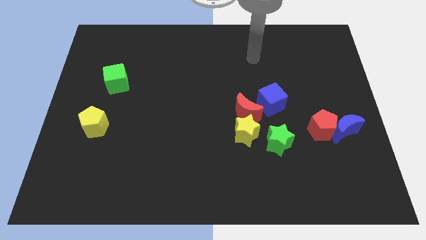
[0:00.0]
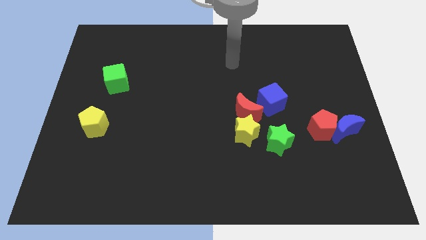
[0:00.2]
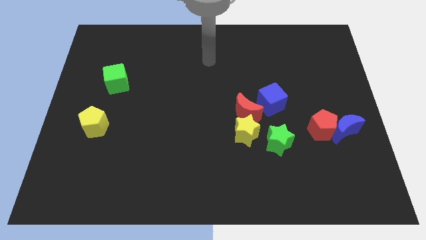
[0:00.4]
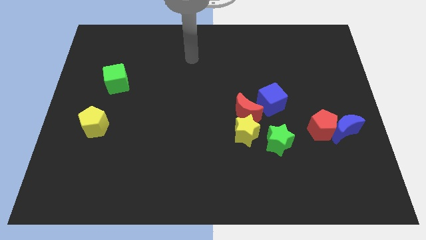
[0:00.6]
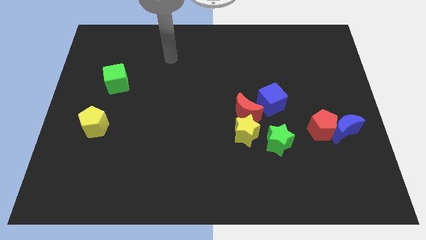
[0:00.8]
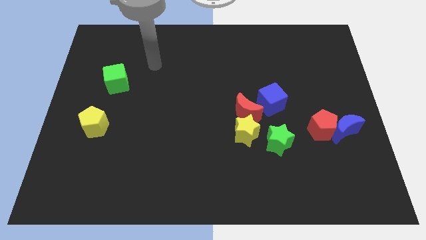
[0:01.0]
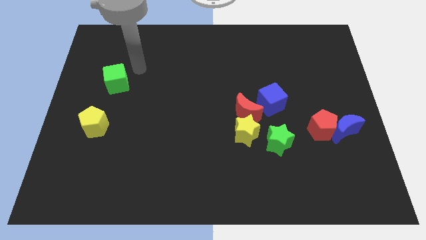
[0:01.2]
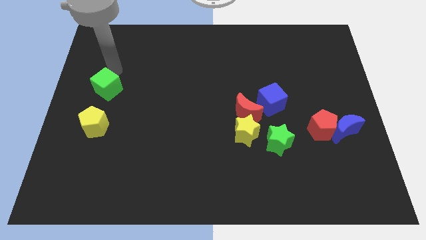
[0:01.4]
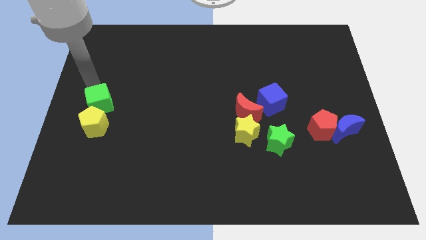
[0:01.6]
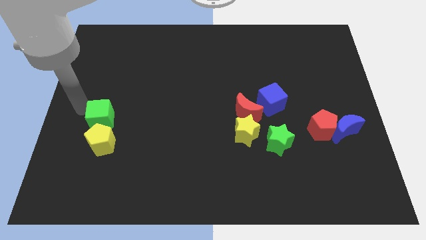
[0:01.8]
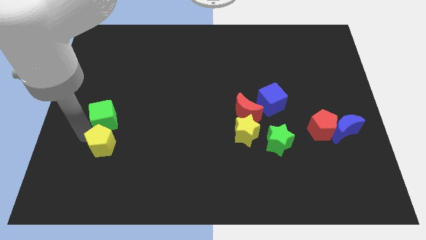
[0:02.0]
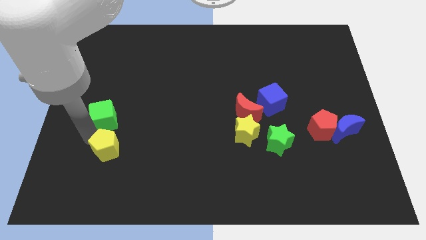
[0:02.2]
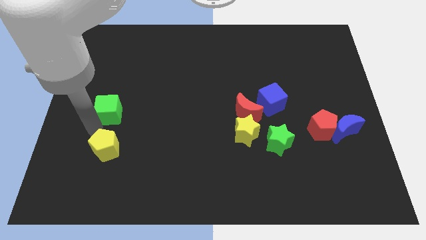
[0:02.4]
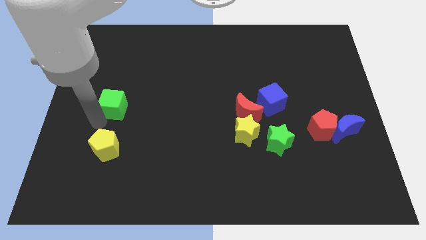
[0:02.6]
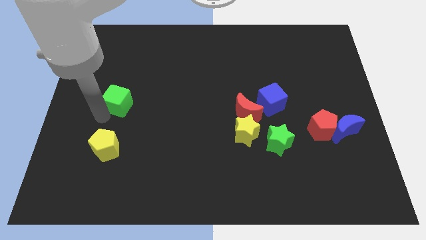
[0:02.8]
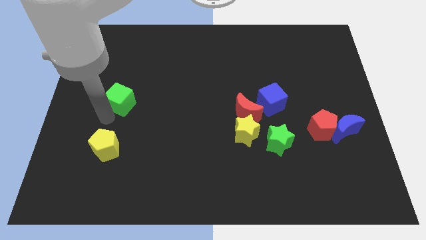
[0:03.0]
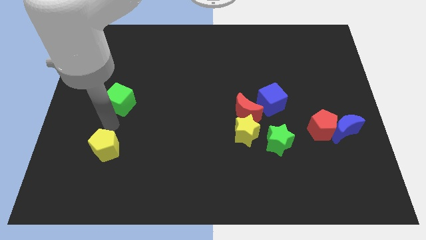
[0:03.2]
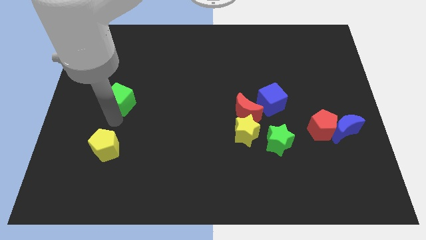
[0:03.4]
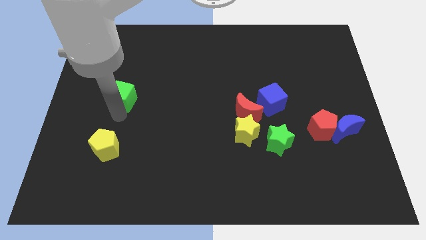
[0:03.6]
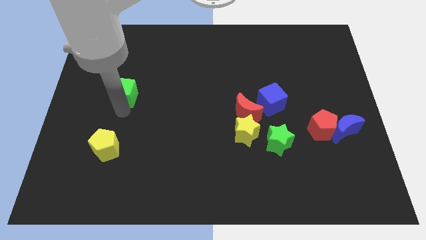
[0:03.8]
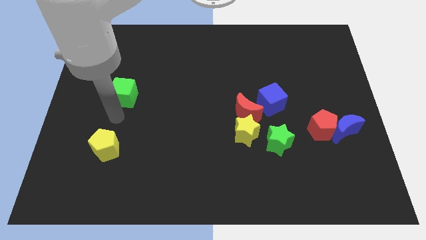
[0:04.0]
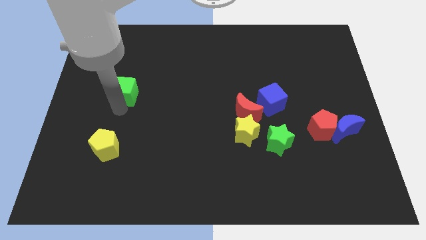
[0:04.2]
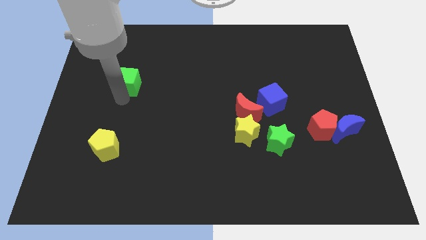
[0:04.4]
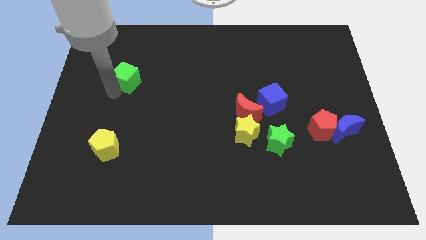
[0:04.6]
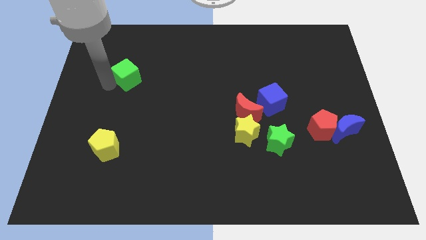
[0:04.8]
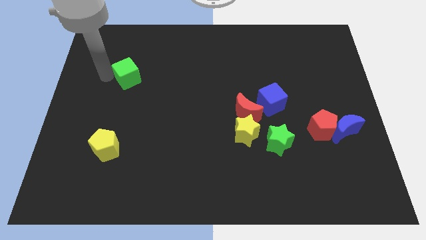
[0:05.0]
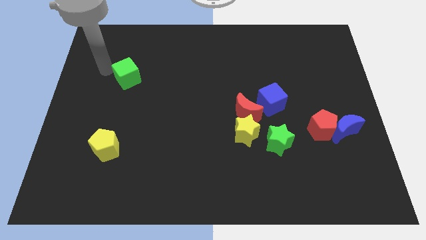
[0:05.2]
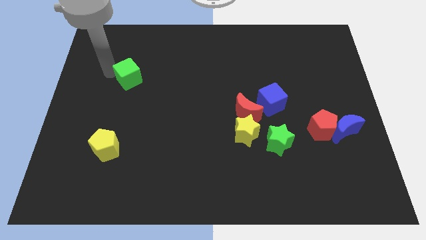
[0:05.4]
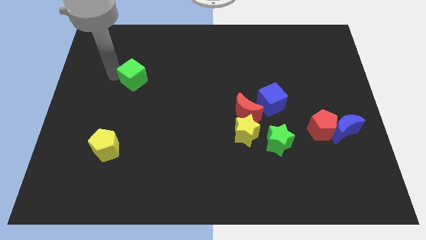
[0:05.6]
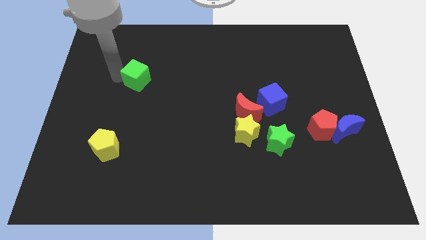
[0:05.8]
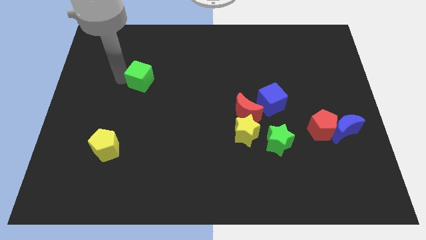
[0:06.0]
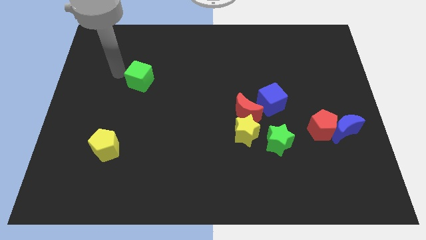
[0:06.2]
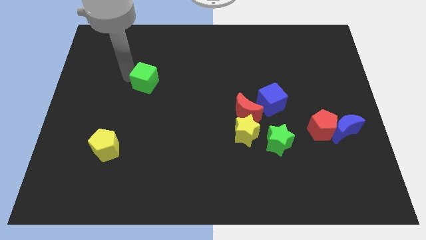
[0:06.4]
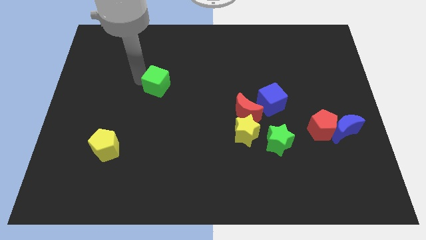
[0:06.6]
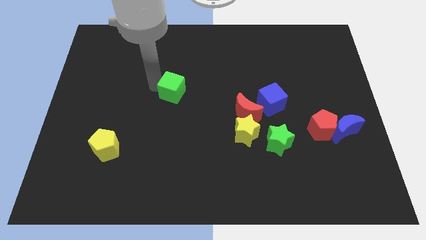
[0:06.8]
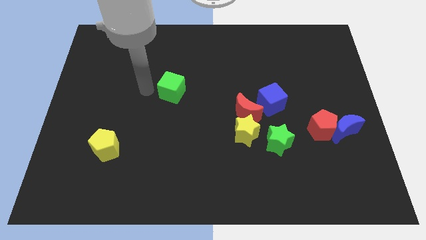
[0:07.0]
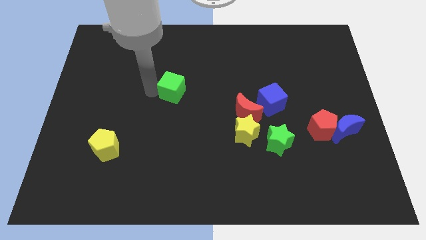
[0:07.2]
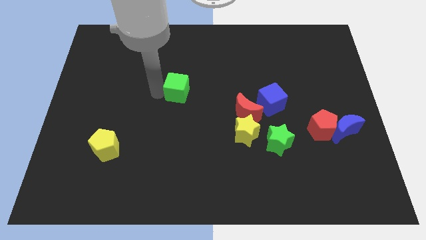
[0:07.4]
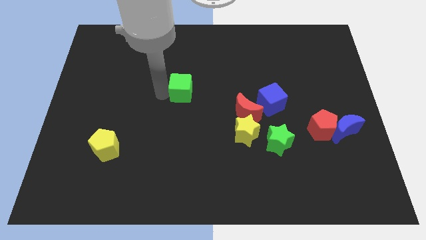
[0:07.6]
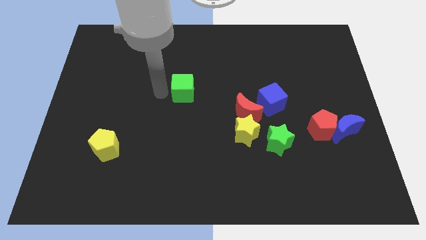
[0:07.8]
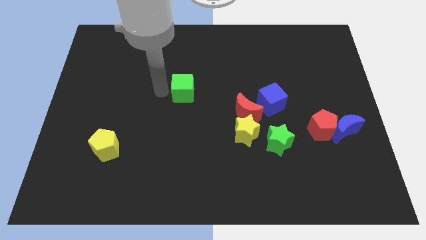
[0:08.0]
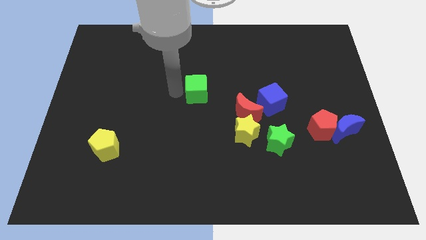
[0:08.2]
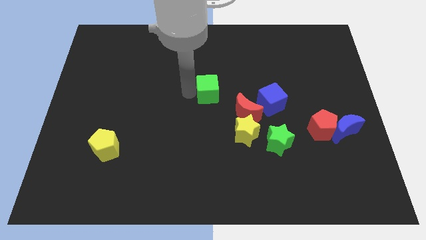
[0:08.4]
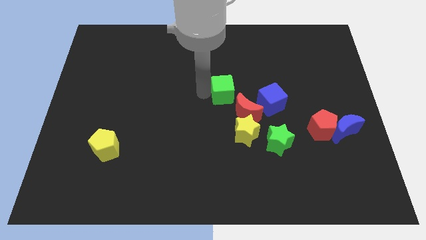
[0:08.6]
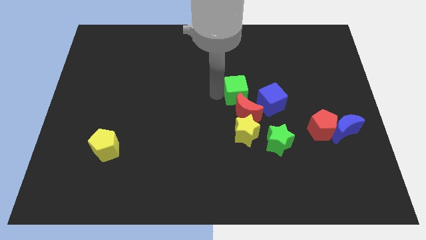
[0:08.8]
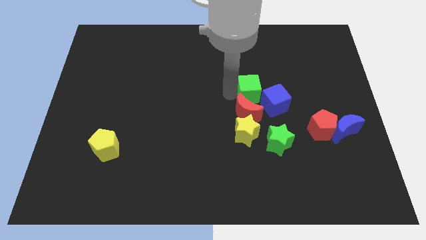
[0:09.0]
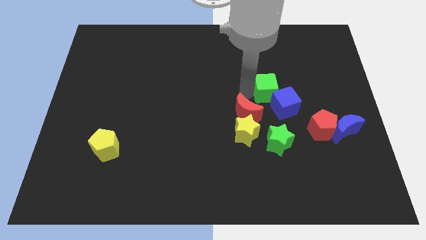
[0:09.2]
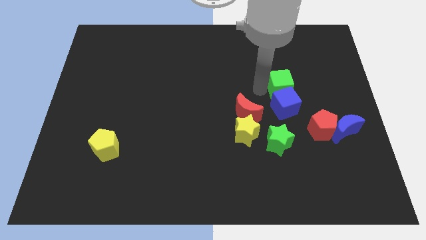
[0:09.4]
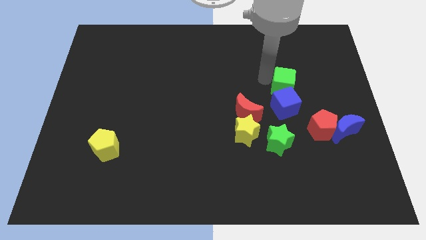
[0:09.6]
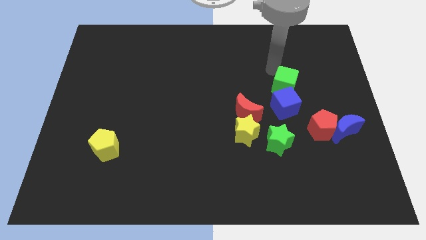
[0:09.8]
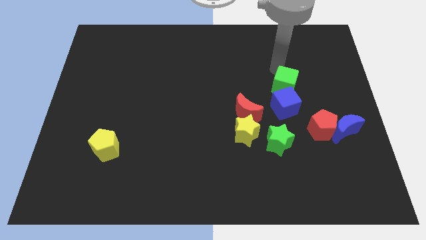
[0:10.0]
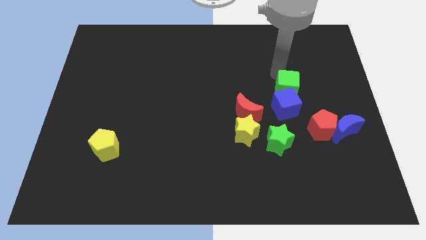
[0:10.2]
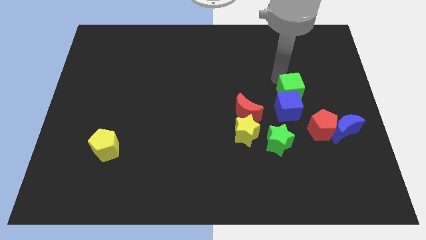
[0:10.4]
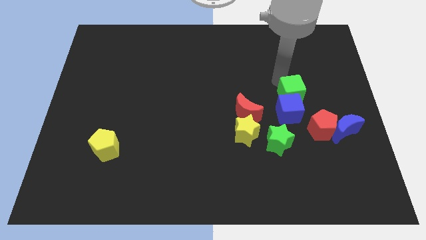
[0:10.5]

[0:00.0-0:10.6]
slide the green cube diagonally up and to the left of the red pentagon
